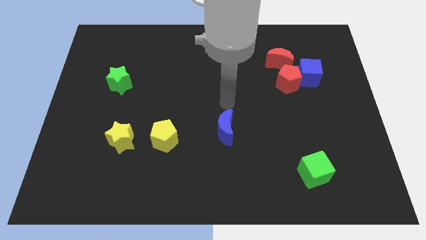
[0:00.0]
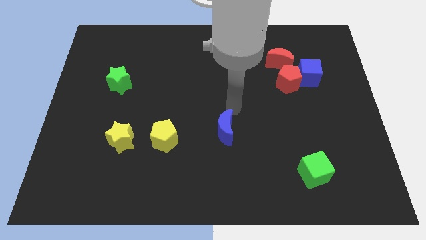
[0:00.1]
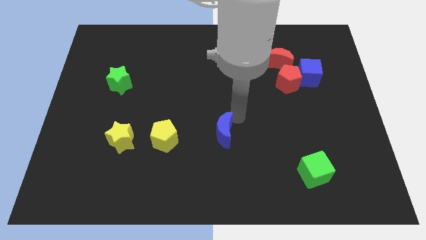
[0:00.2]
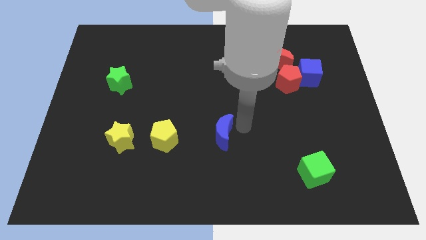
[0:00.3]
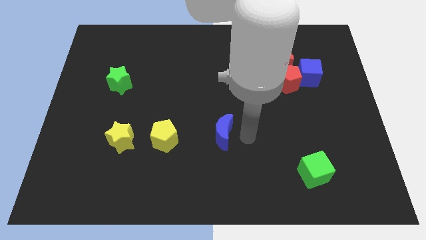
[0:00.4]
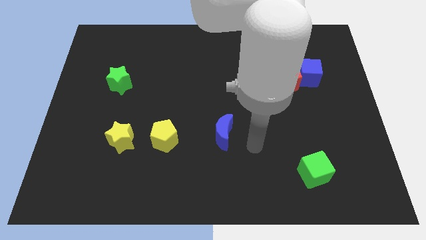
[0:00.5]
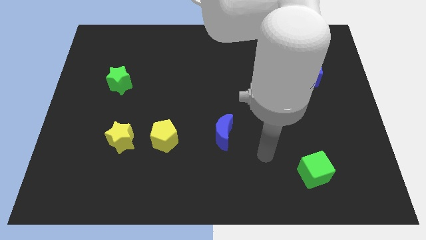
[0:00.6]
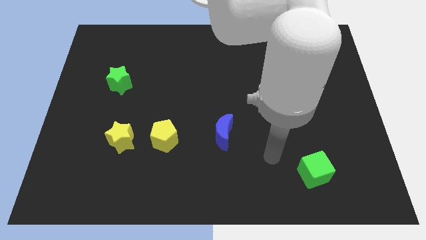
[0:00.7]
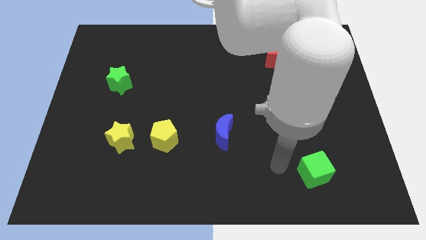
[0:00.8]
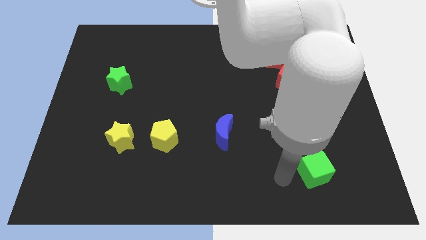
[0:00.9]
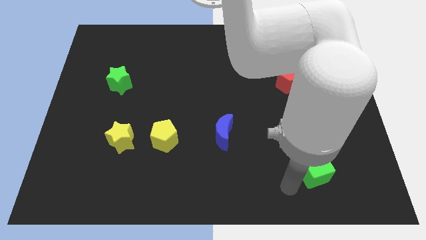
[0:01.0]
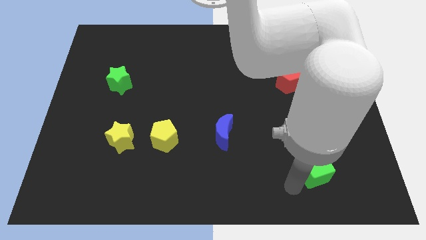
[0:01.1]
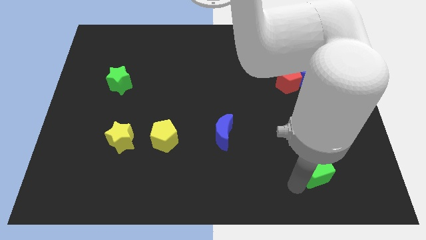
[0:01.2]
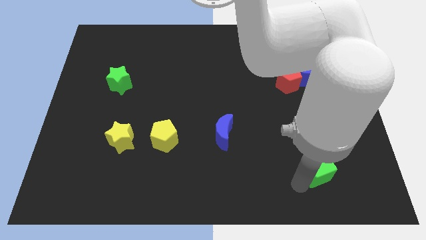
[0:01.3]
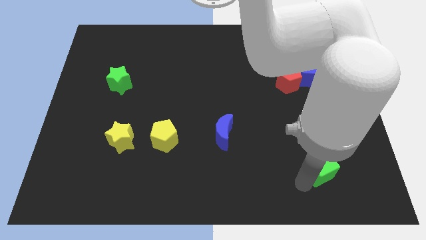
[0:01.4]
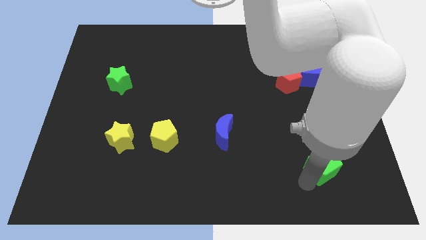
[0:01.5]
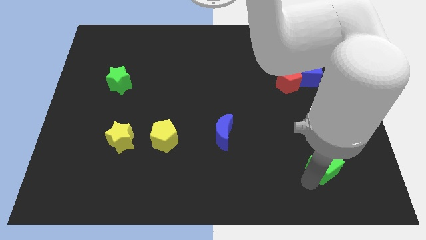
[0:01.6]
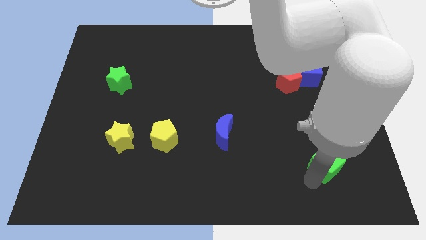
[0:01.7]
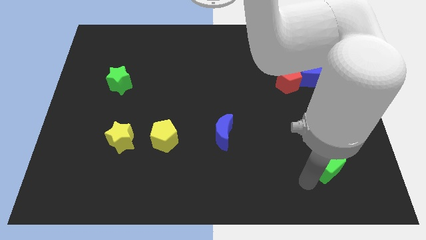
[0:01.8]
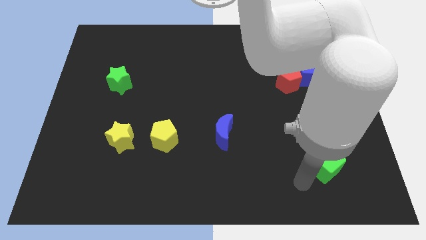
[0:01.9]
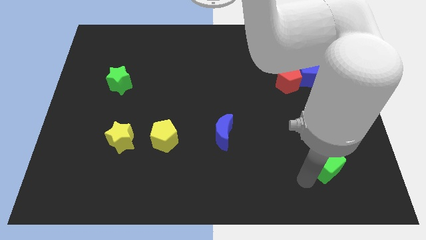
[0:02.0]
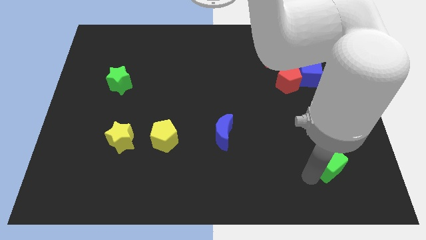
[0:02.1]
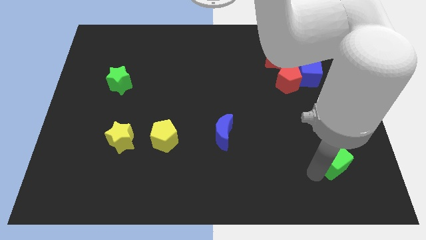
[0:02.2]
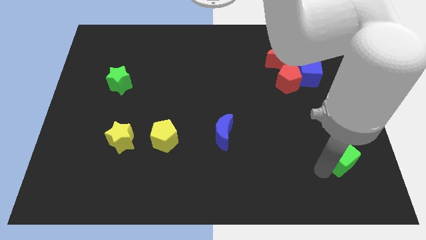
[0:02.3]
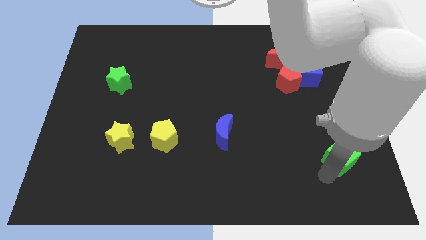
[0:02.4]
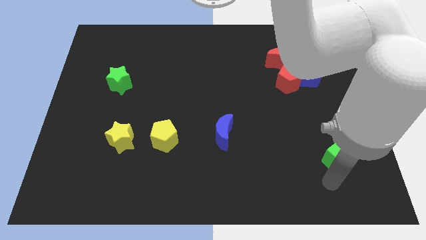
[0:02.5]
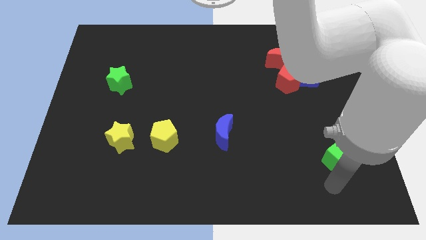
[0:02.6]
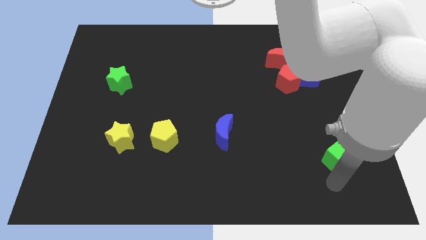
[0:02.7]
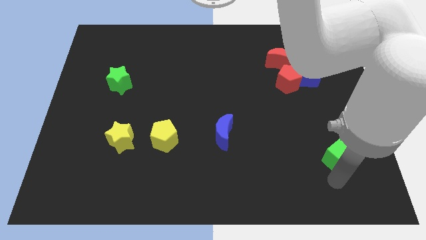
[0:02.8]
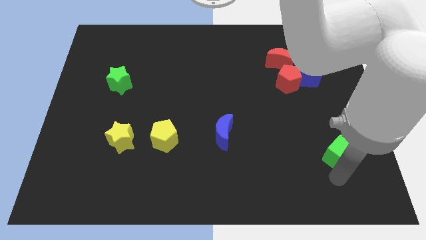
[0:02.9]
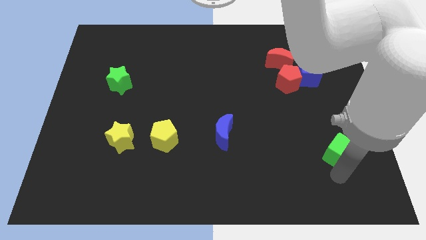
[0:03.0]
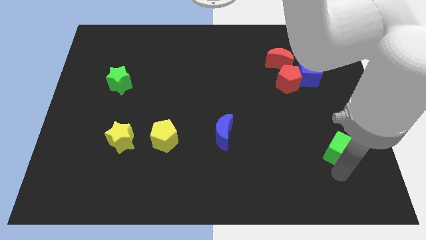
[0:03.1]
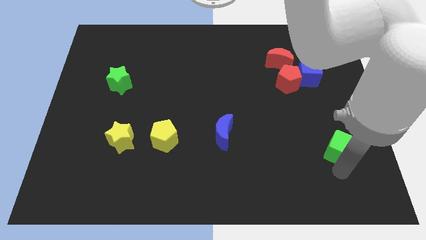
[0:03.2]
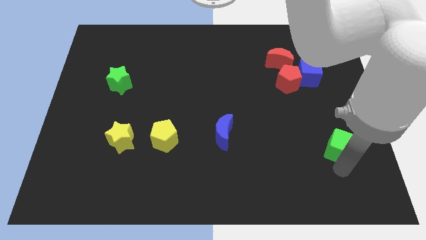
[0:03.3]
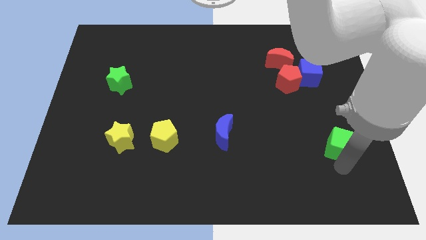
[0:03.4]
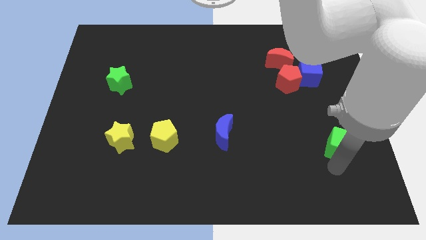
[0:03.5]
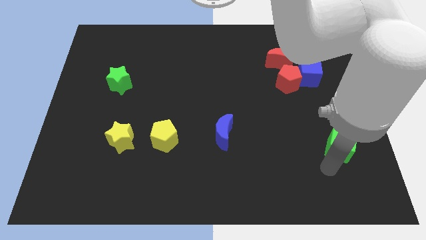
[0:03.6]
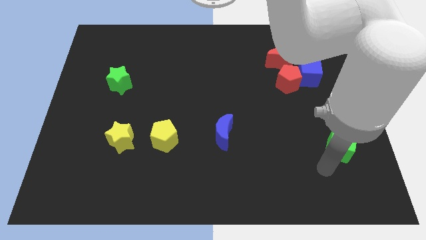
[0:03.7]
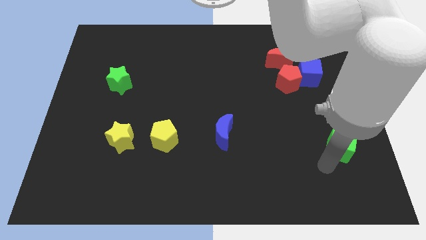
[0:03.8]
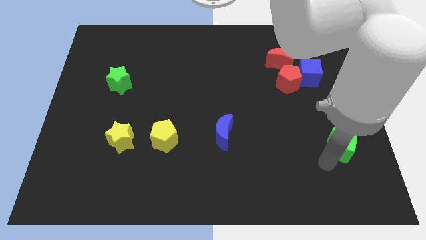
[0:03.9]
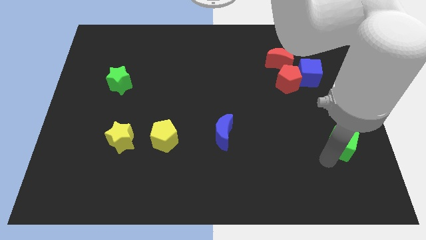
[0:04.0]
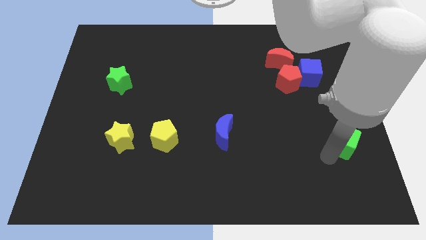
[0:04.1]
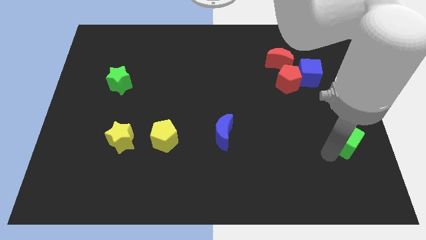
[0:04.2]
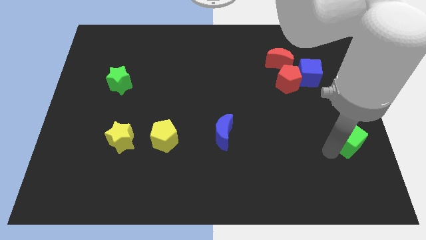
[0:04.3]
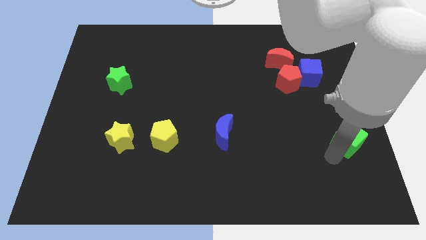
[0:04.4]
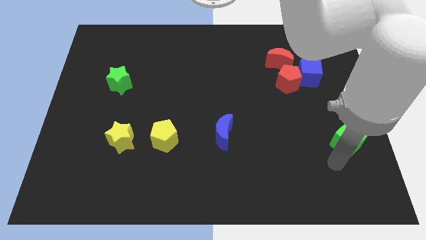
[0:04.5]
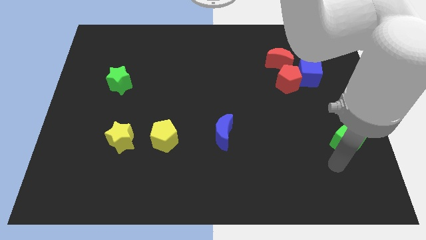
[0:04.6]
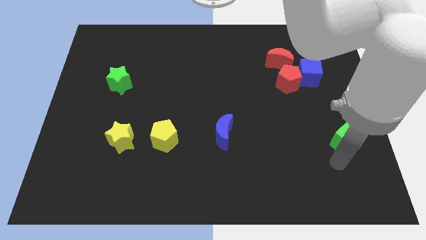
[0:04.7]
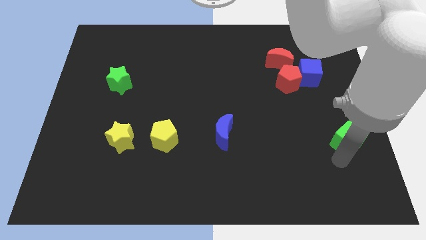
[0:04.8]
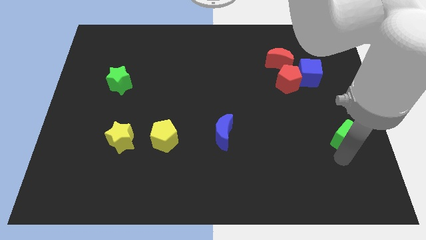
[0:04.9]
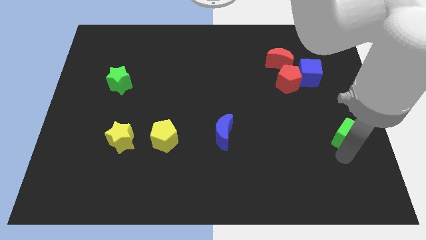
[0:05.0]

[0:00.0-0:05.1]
slide the green cube to the right side of the board

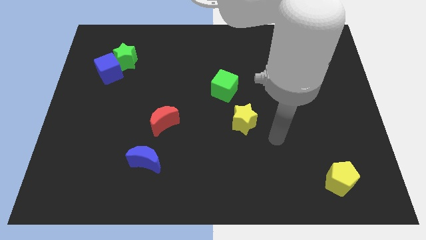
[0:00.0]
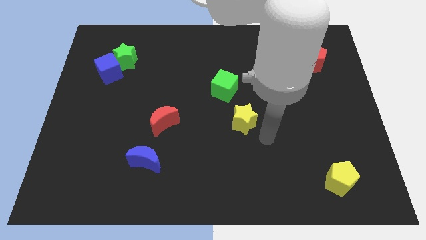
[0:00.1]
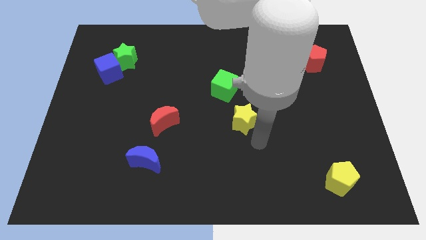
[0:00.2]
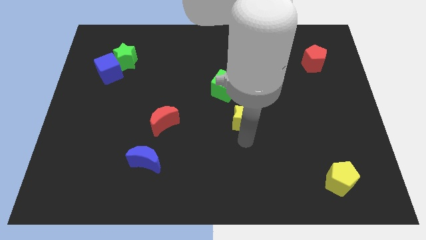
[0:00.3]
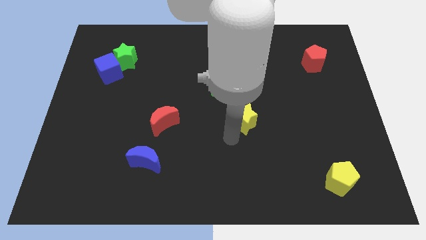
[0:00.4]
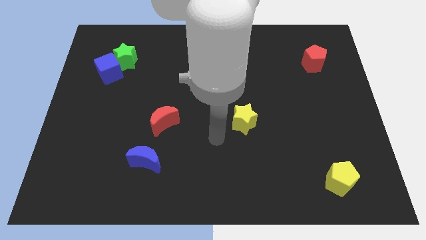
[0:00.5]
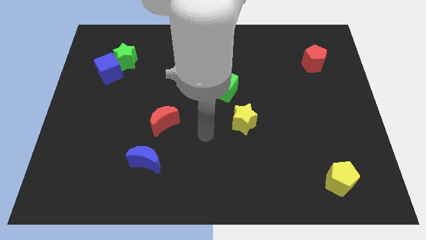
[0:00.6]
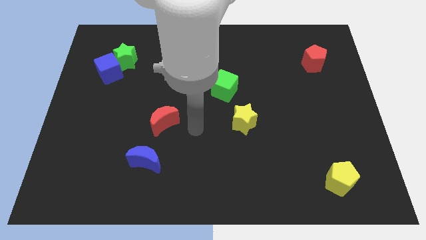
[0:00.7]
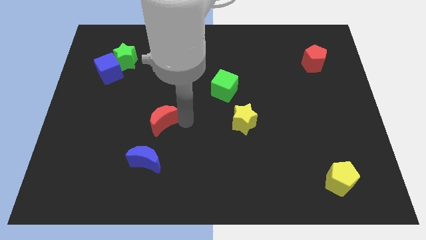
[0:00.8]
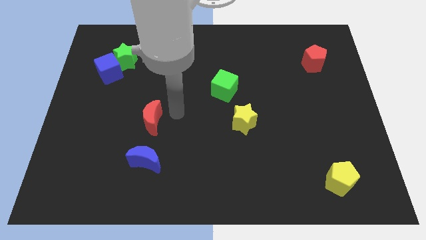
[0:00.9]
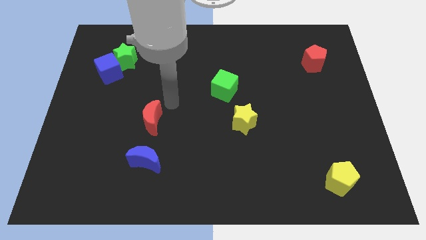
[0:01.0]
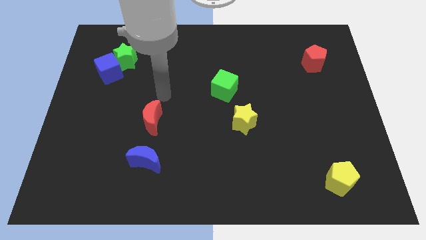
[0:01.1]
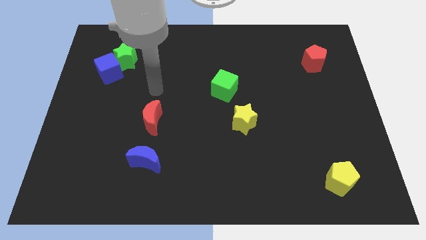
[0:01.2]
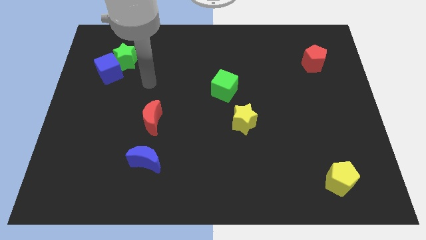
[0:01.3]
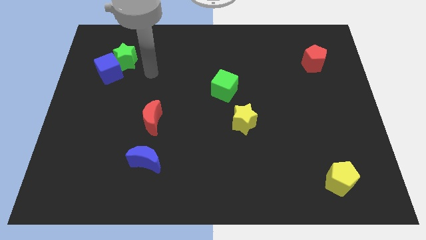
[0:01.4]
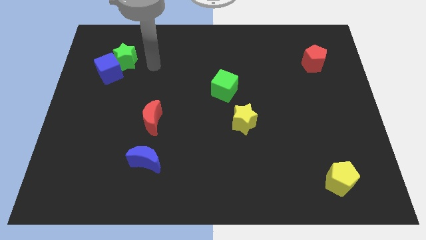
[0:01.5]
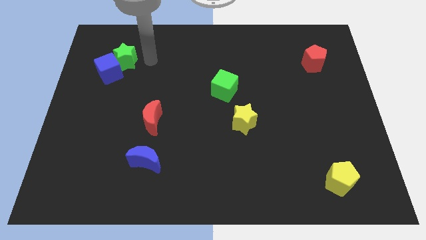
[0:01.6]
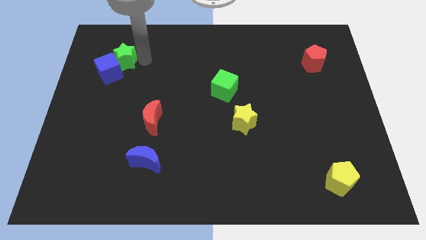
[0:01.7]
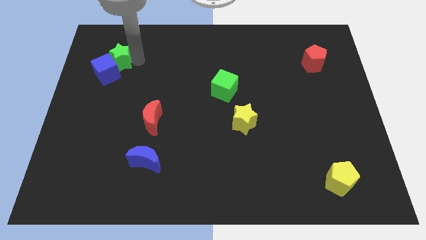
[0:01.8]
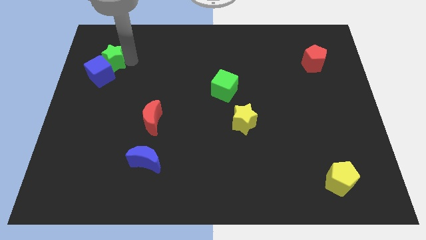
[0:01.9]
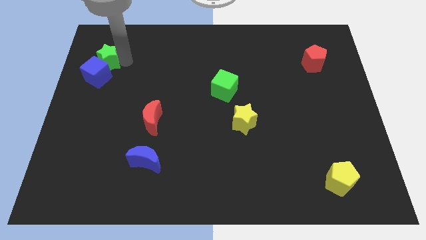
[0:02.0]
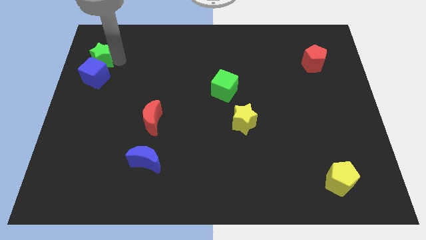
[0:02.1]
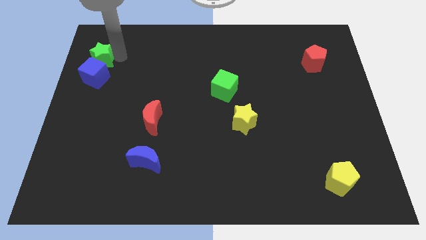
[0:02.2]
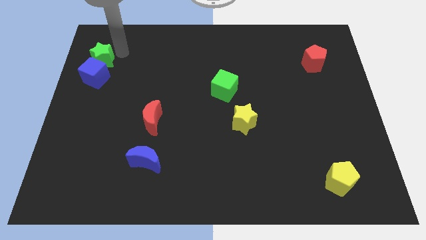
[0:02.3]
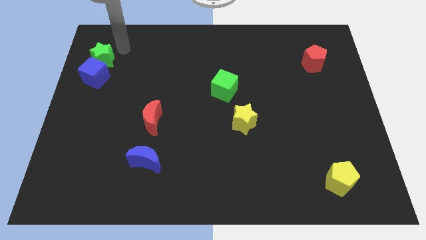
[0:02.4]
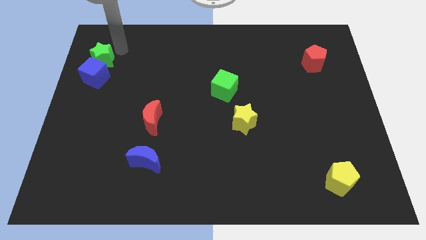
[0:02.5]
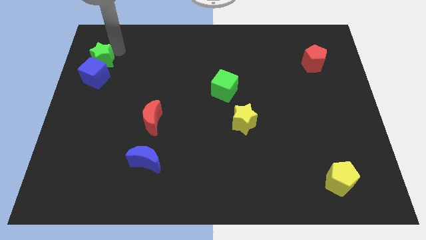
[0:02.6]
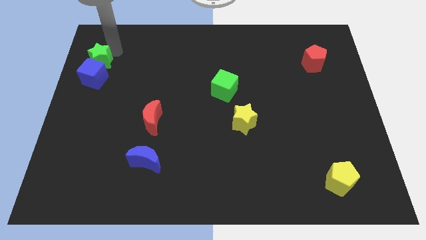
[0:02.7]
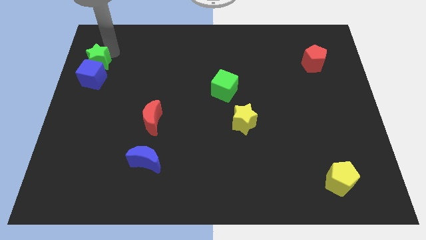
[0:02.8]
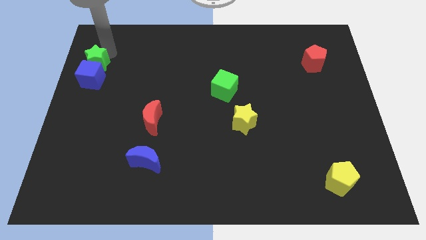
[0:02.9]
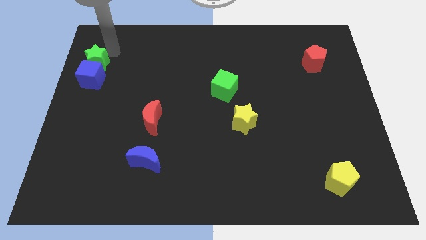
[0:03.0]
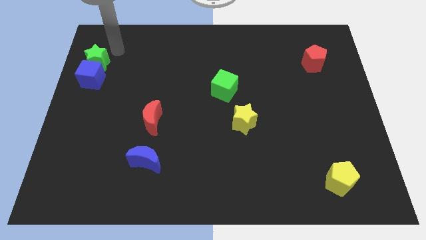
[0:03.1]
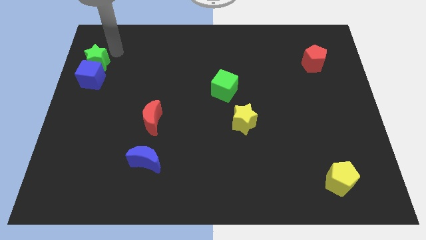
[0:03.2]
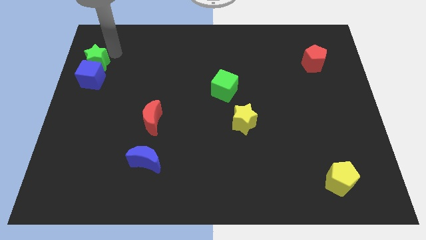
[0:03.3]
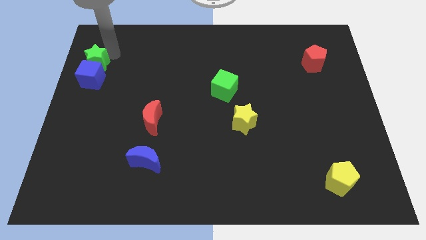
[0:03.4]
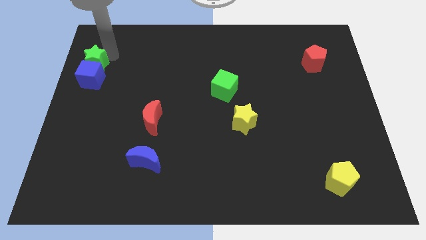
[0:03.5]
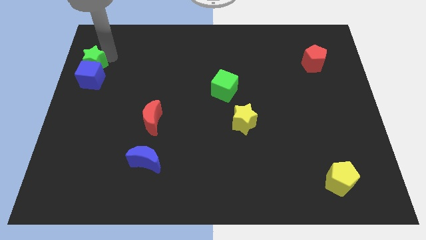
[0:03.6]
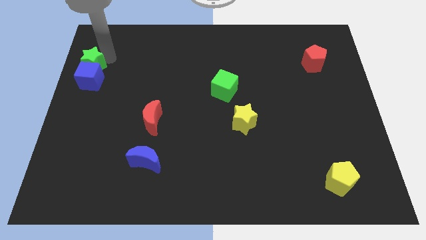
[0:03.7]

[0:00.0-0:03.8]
put the green star to the left side of the board
